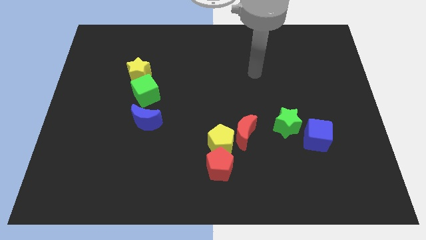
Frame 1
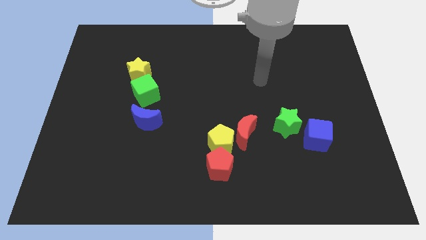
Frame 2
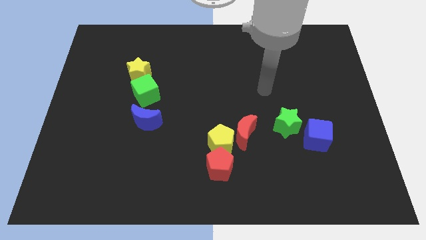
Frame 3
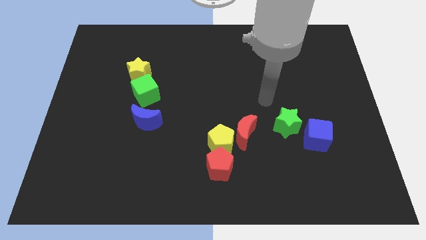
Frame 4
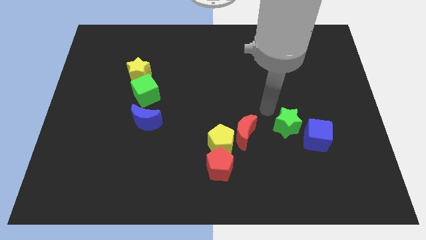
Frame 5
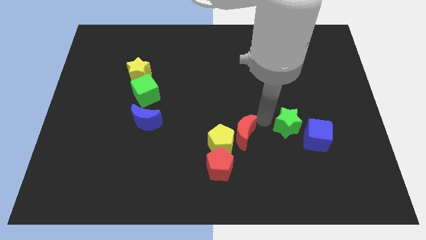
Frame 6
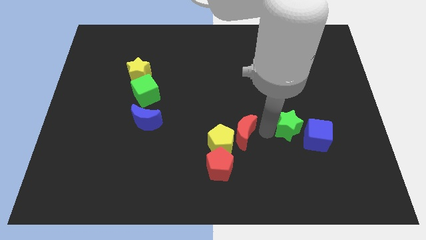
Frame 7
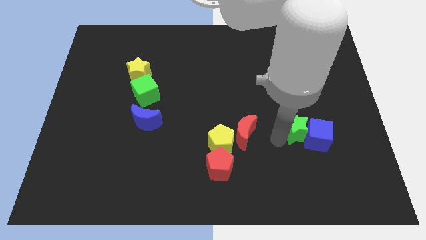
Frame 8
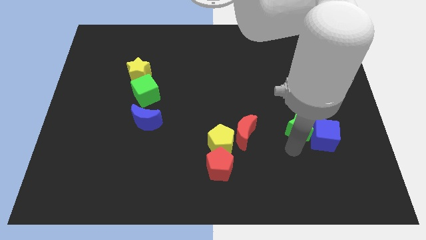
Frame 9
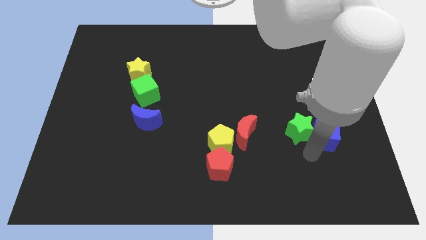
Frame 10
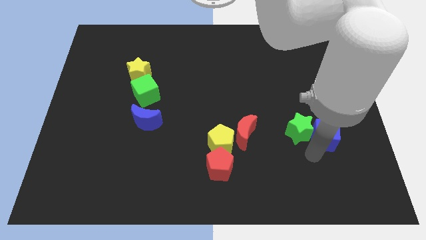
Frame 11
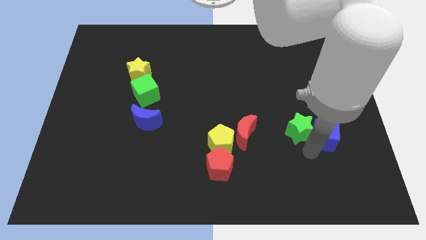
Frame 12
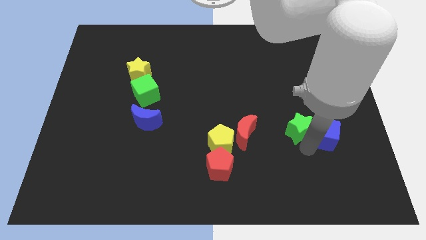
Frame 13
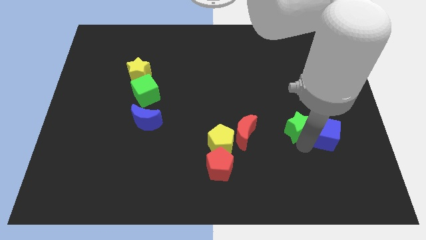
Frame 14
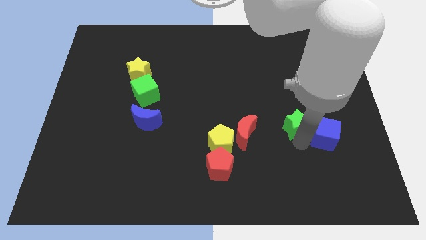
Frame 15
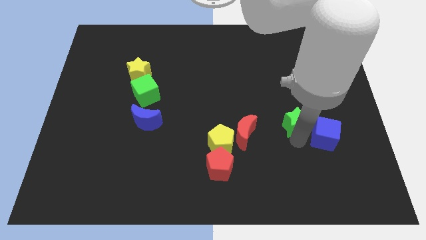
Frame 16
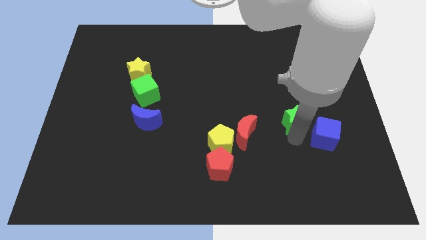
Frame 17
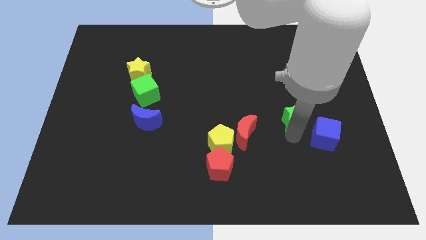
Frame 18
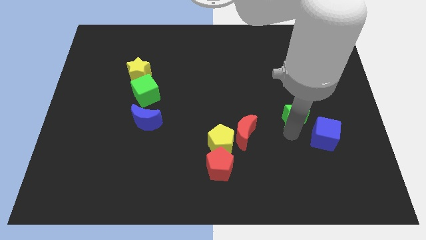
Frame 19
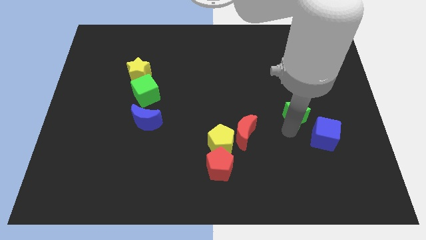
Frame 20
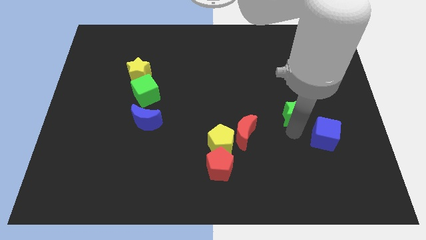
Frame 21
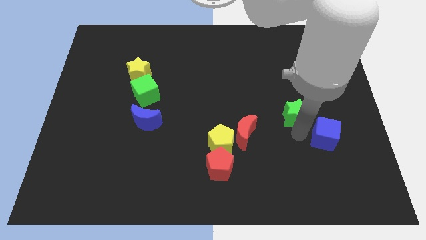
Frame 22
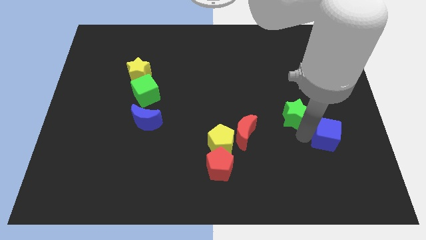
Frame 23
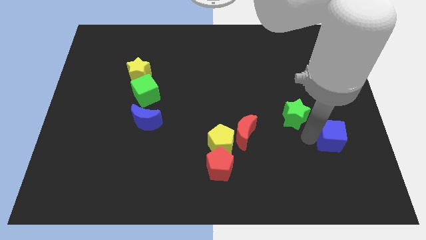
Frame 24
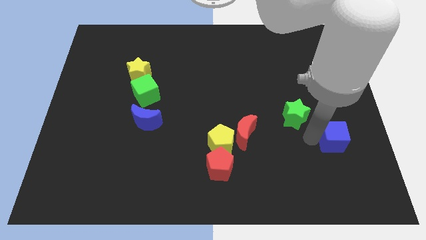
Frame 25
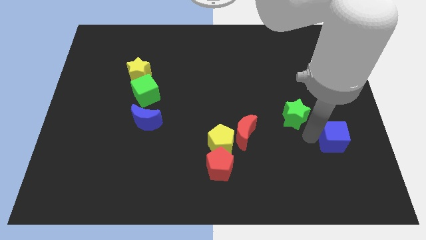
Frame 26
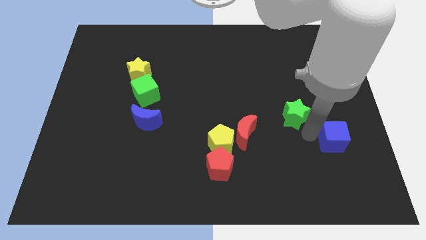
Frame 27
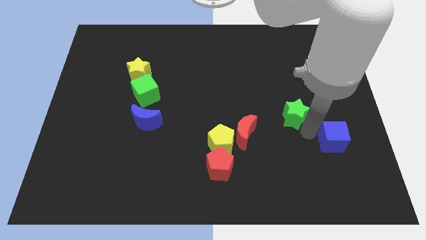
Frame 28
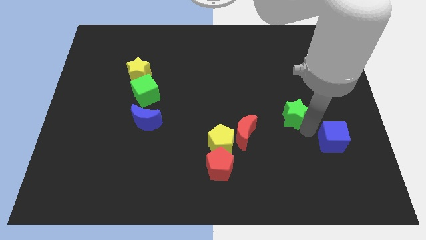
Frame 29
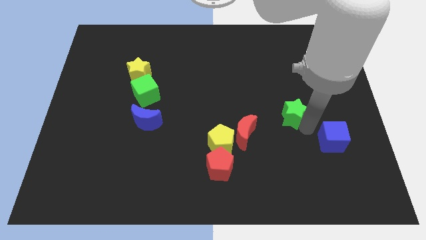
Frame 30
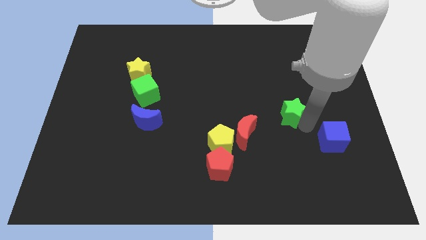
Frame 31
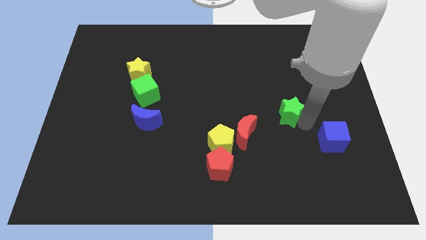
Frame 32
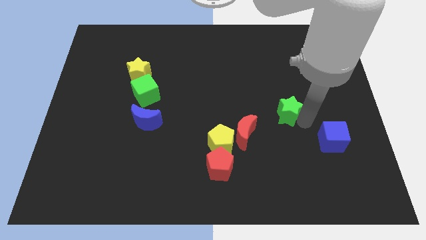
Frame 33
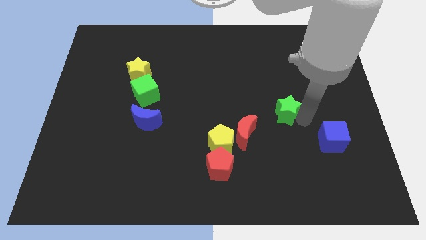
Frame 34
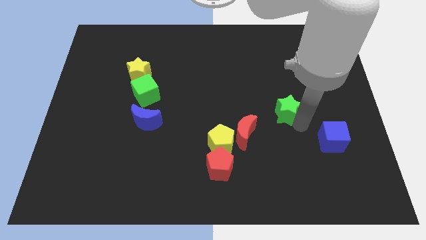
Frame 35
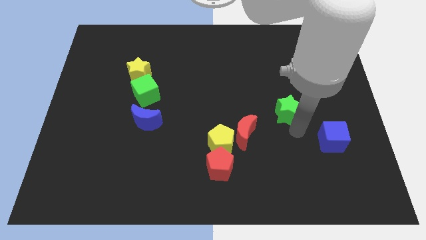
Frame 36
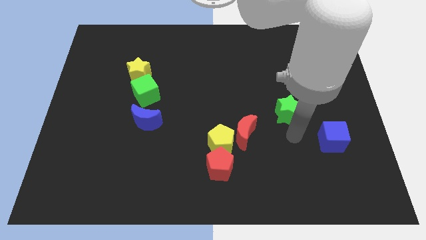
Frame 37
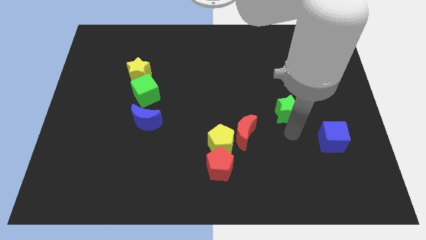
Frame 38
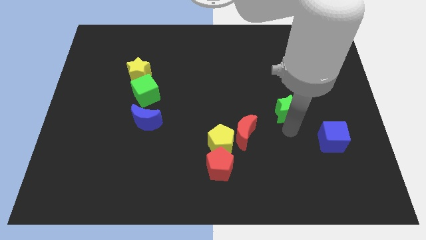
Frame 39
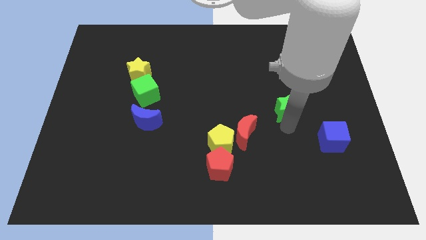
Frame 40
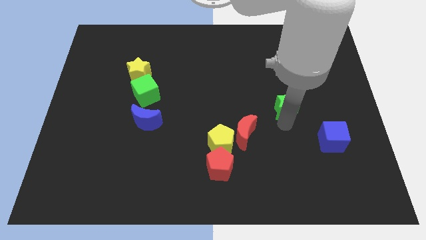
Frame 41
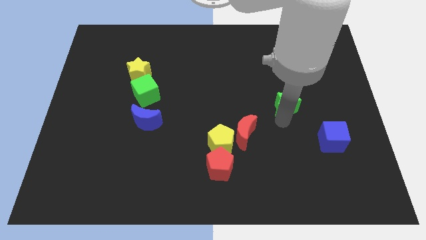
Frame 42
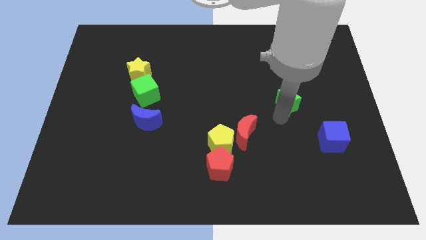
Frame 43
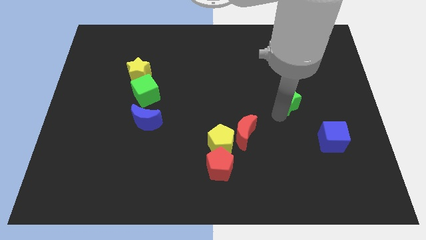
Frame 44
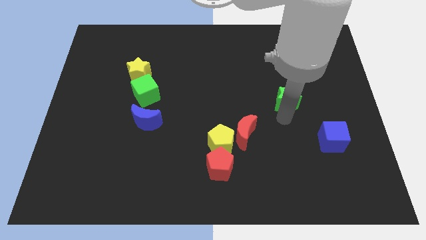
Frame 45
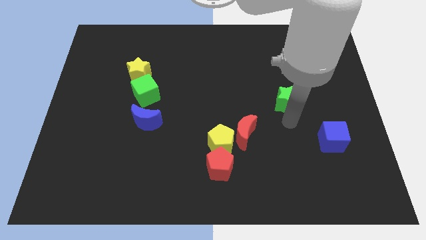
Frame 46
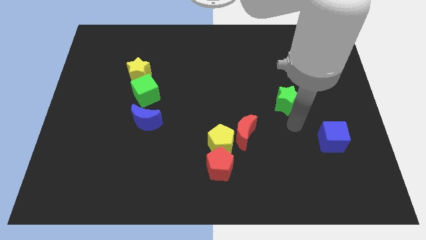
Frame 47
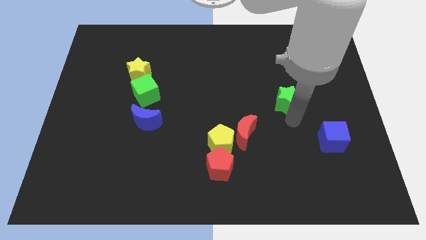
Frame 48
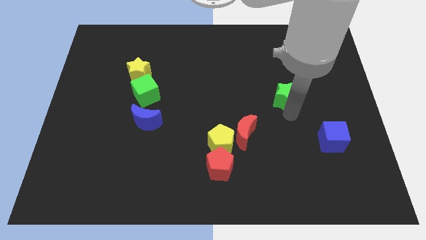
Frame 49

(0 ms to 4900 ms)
push the green star up a bit

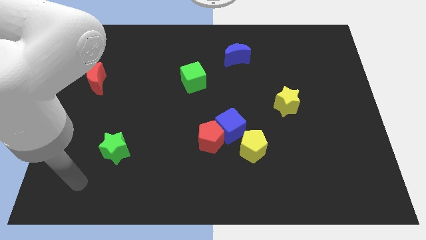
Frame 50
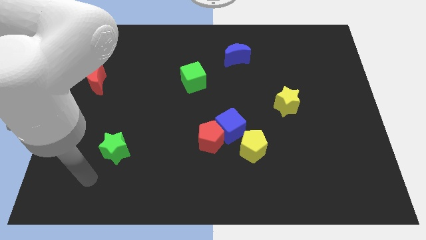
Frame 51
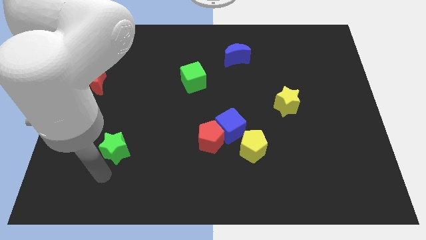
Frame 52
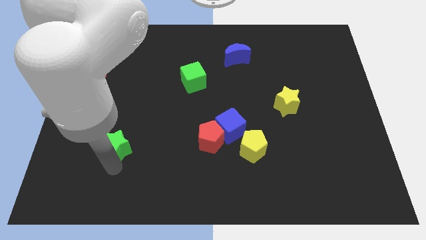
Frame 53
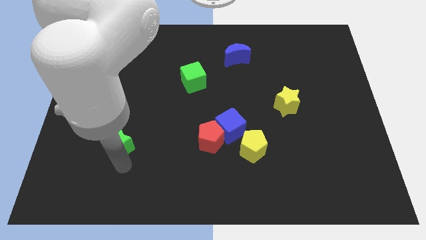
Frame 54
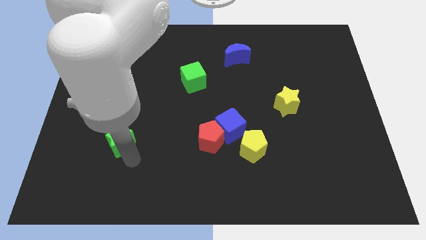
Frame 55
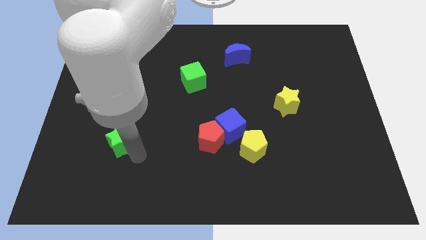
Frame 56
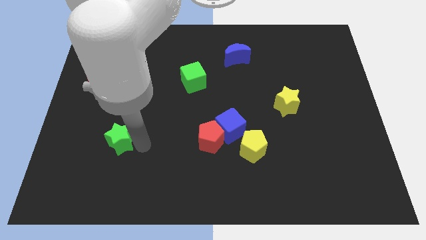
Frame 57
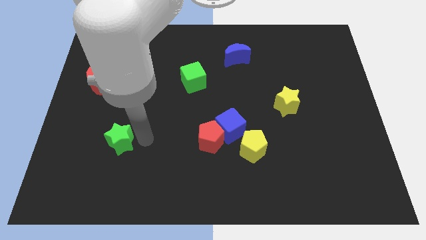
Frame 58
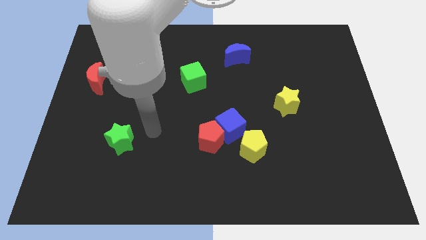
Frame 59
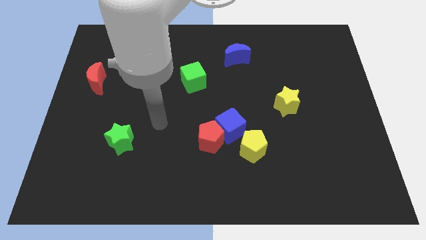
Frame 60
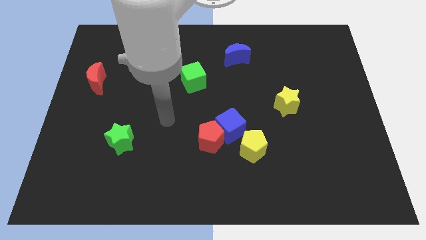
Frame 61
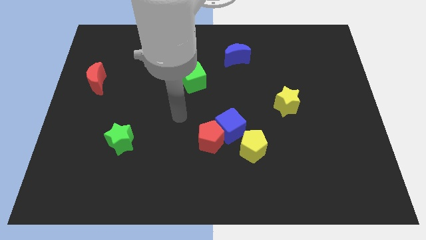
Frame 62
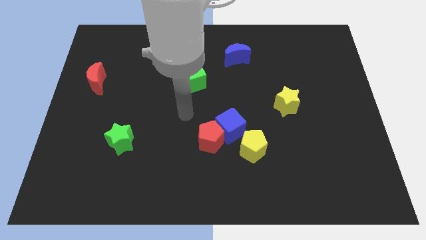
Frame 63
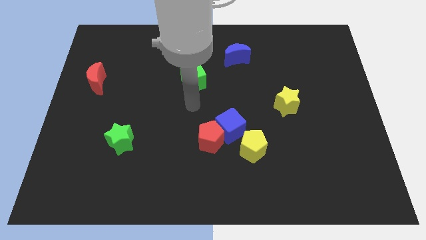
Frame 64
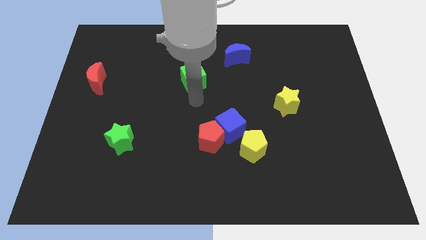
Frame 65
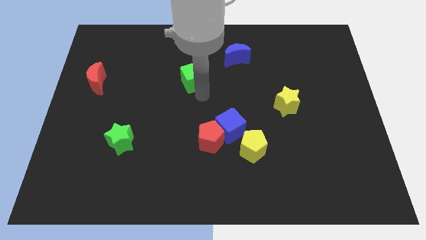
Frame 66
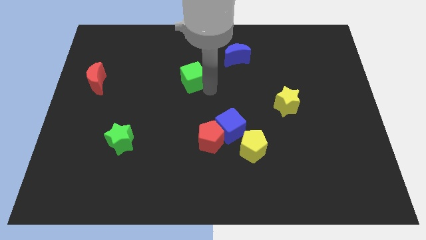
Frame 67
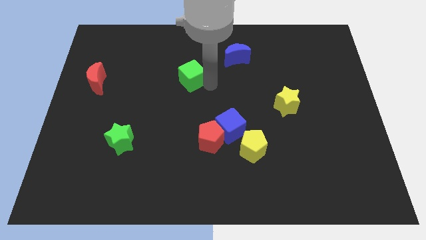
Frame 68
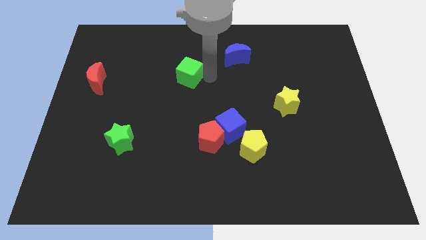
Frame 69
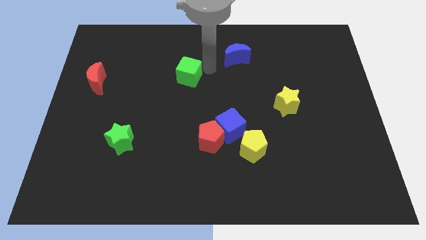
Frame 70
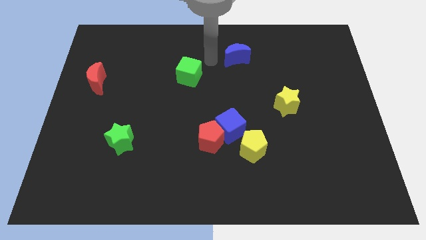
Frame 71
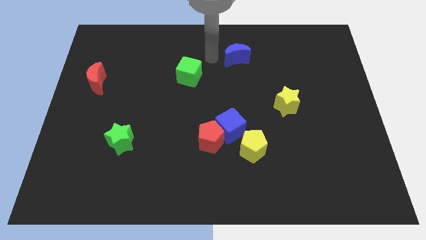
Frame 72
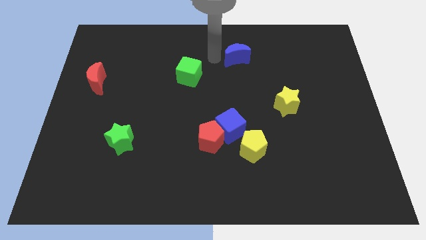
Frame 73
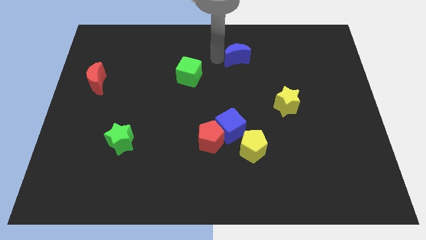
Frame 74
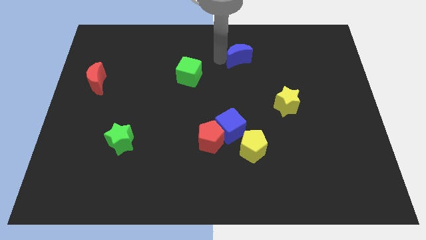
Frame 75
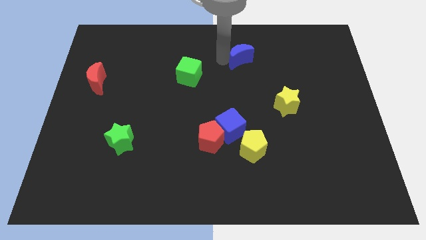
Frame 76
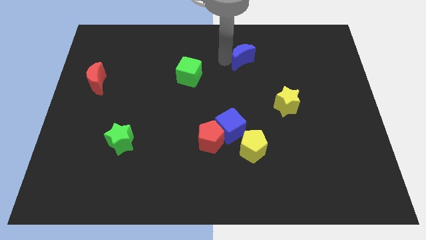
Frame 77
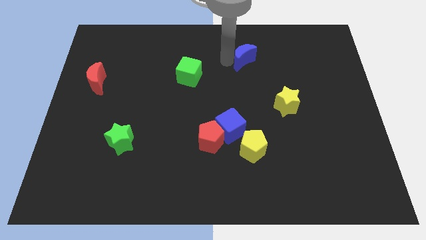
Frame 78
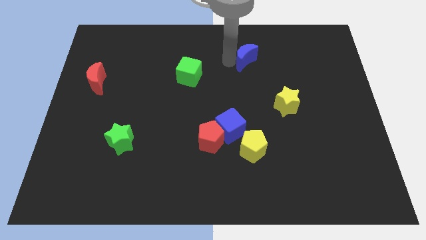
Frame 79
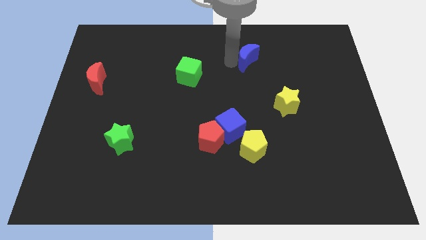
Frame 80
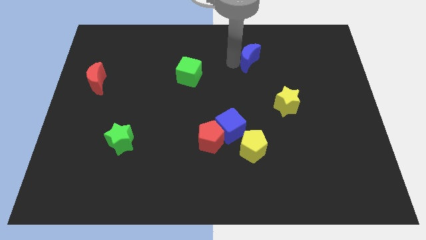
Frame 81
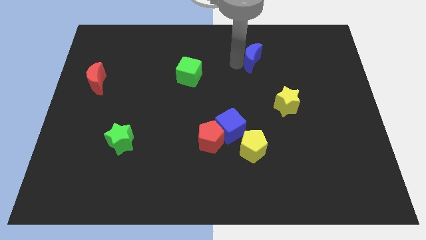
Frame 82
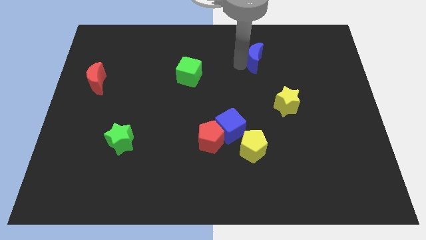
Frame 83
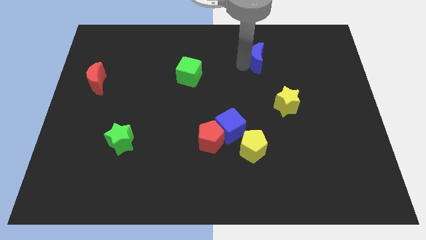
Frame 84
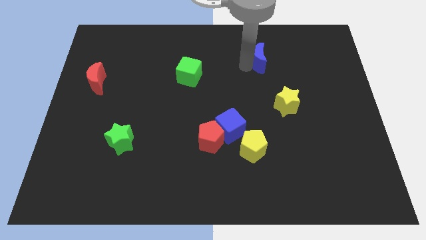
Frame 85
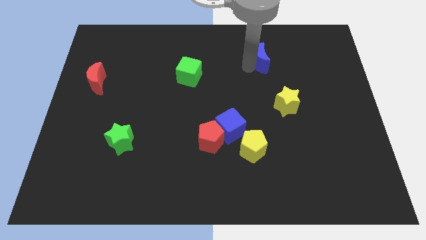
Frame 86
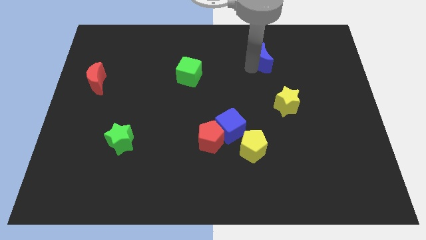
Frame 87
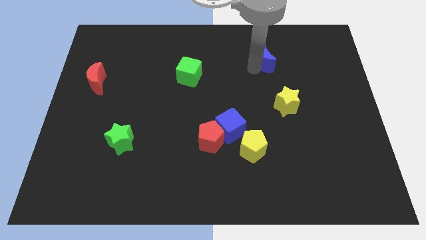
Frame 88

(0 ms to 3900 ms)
slightly slide the blue moon right
